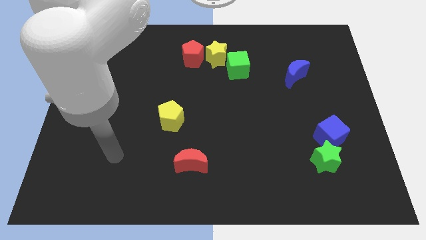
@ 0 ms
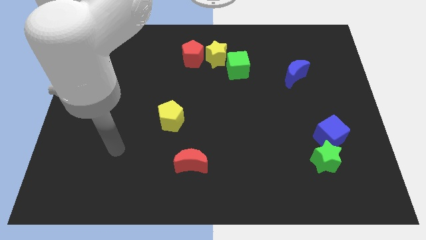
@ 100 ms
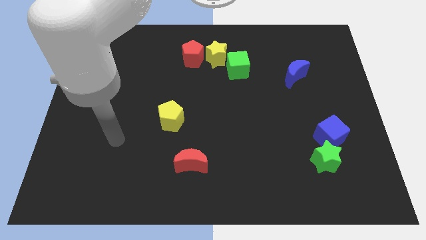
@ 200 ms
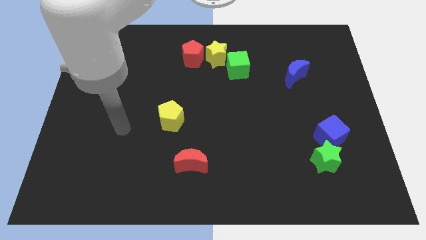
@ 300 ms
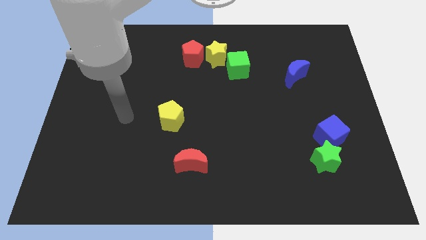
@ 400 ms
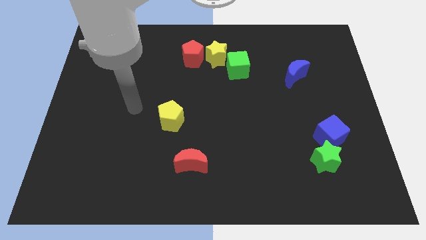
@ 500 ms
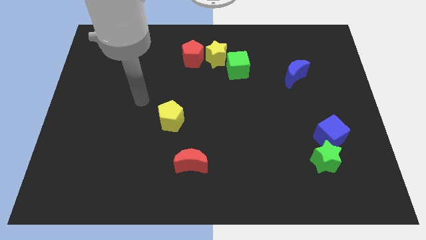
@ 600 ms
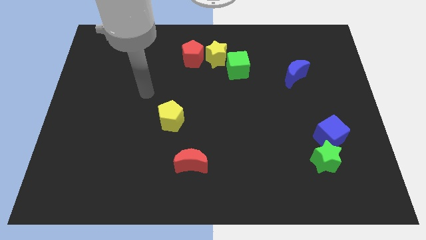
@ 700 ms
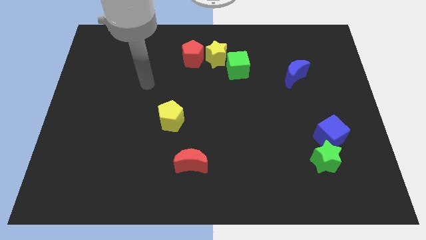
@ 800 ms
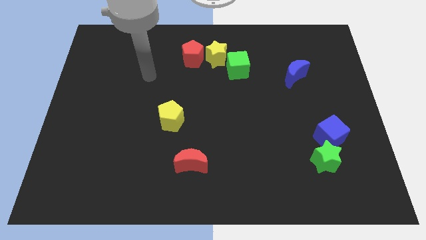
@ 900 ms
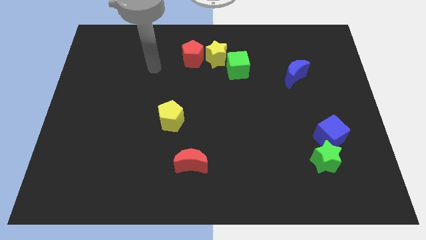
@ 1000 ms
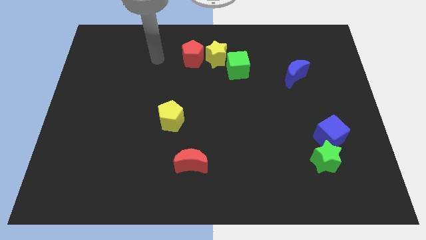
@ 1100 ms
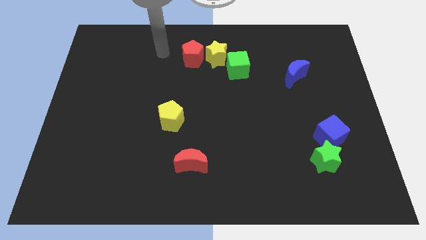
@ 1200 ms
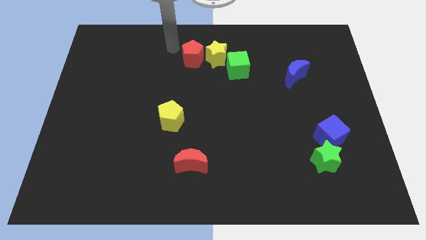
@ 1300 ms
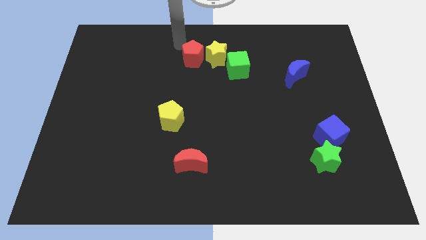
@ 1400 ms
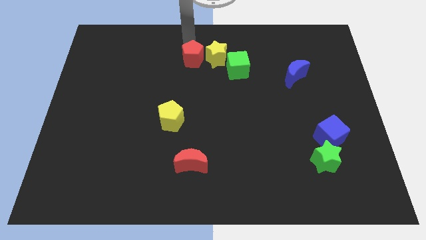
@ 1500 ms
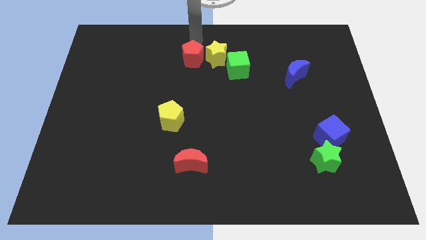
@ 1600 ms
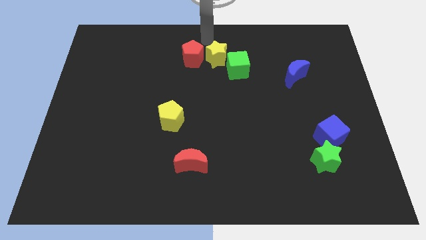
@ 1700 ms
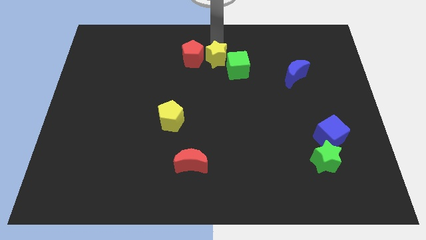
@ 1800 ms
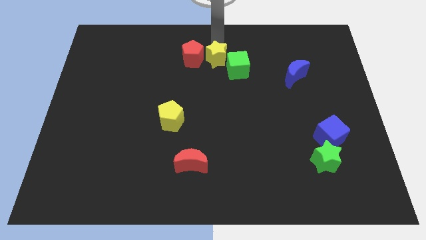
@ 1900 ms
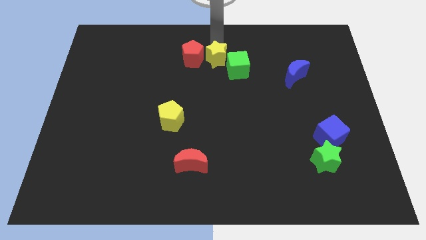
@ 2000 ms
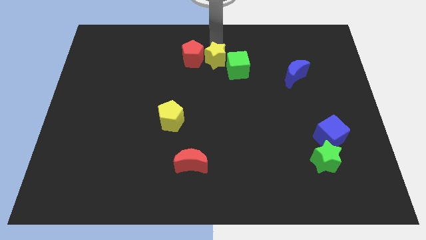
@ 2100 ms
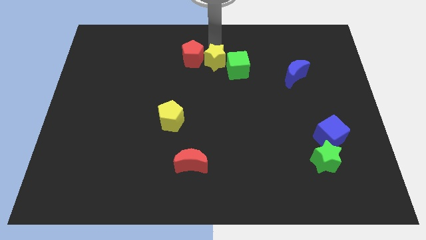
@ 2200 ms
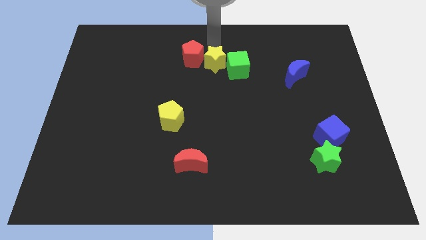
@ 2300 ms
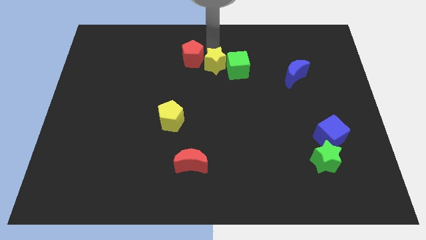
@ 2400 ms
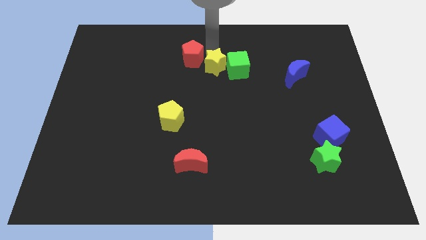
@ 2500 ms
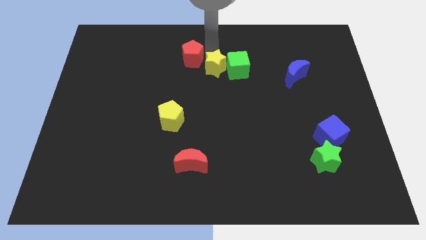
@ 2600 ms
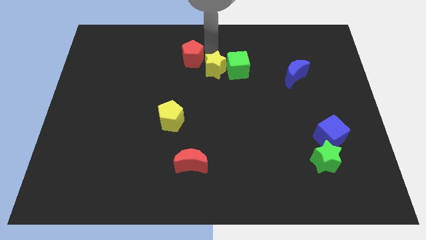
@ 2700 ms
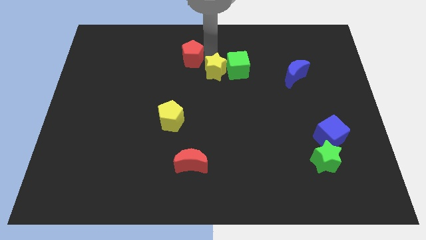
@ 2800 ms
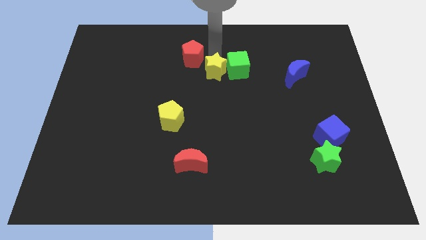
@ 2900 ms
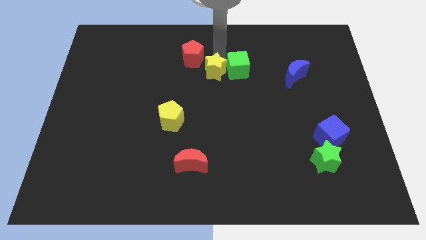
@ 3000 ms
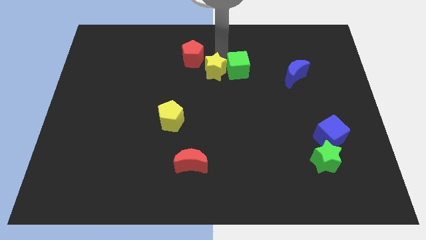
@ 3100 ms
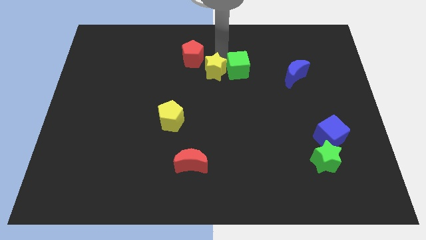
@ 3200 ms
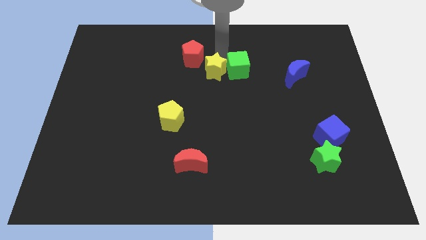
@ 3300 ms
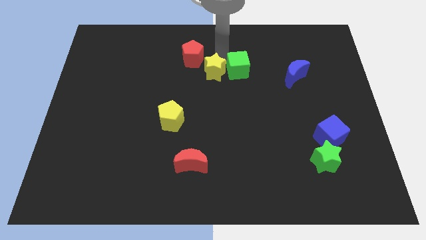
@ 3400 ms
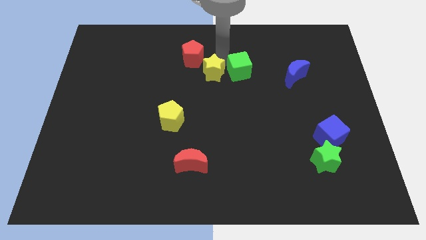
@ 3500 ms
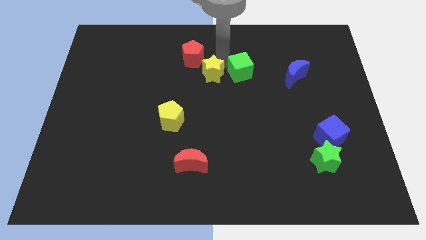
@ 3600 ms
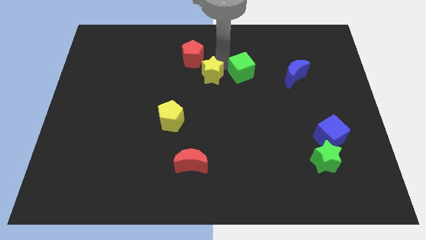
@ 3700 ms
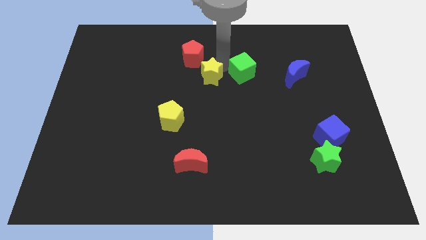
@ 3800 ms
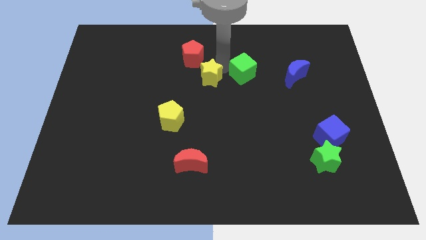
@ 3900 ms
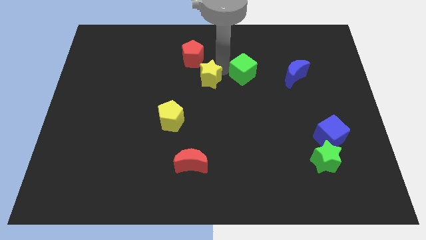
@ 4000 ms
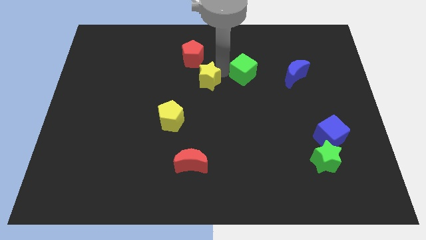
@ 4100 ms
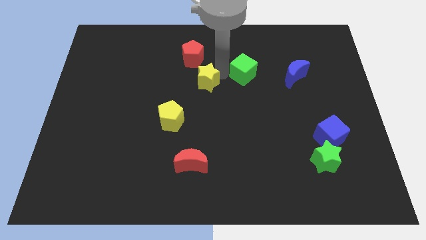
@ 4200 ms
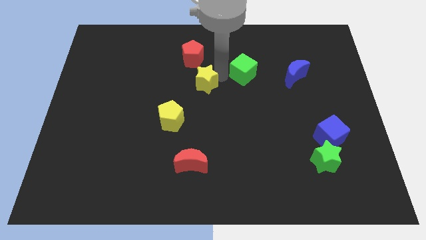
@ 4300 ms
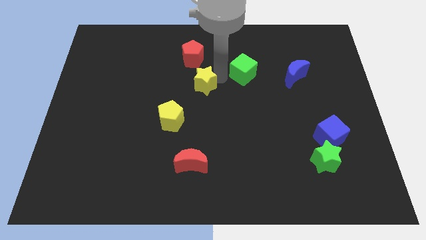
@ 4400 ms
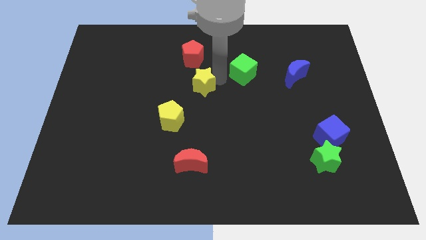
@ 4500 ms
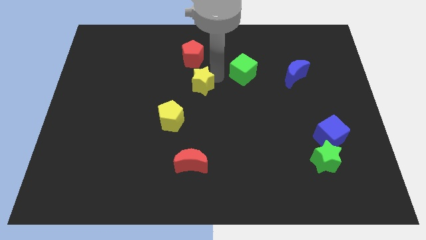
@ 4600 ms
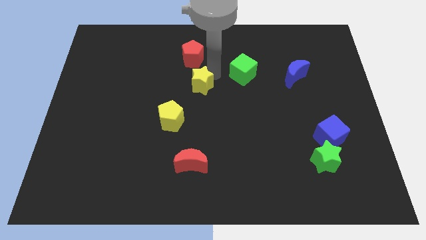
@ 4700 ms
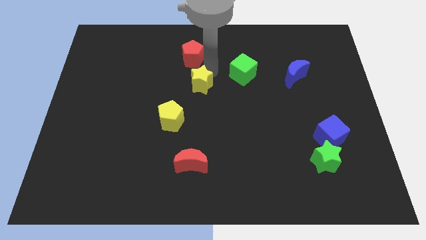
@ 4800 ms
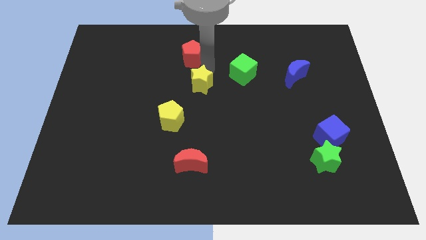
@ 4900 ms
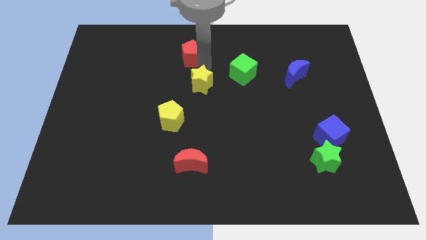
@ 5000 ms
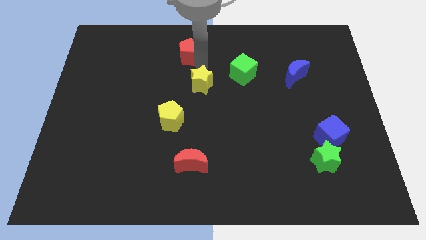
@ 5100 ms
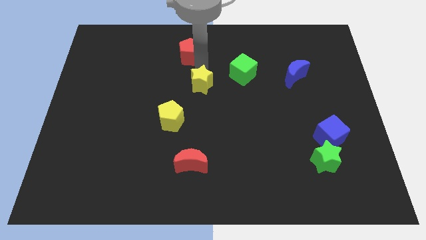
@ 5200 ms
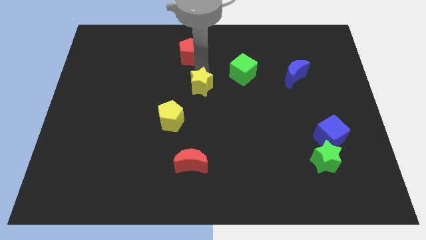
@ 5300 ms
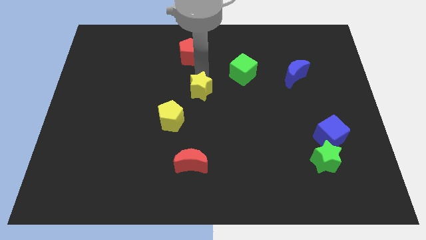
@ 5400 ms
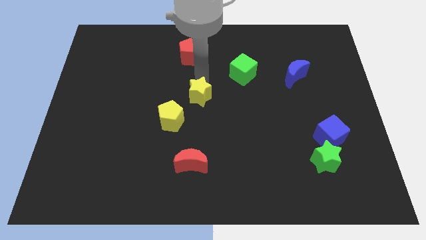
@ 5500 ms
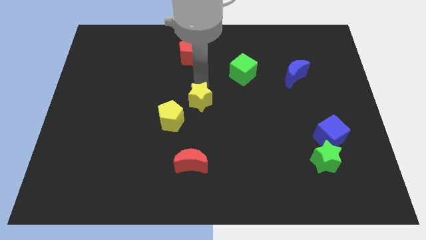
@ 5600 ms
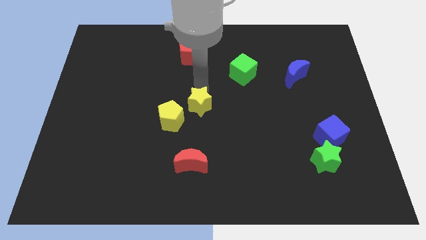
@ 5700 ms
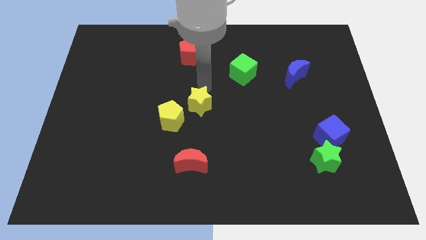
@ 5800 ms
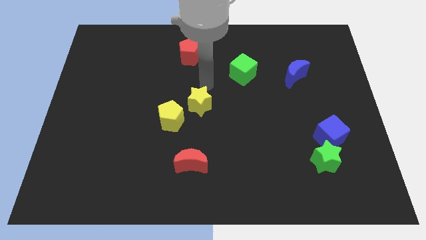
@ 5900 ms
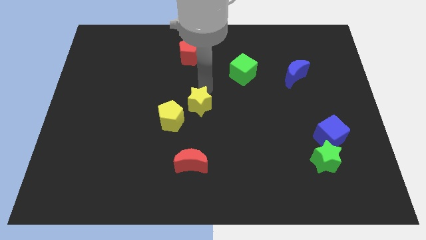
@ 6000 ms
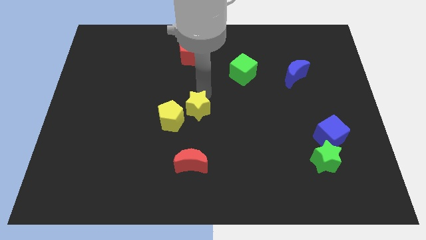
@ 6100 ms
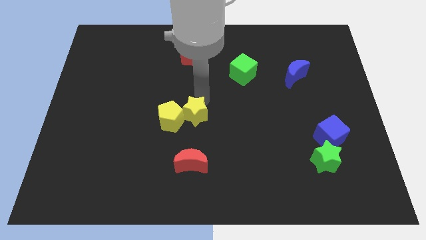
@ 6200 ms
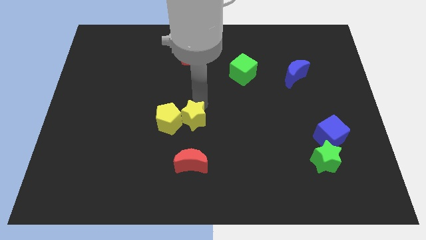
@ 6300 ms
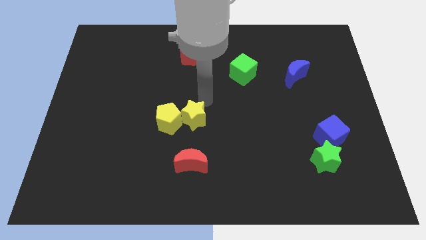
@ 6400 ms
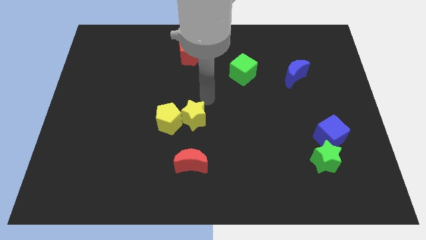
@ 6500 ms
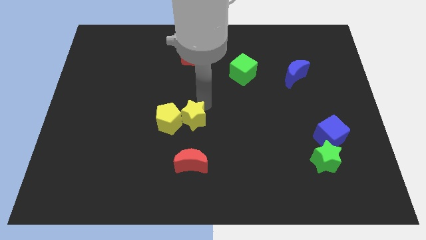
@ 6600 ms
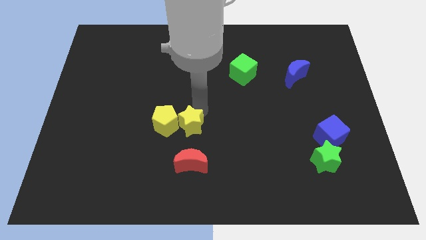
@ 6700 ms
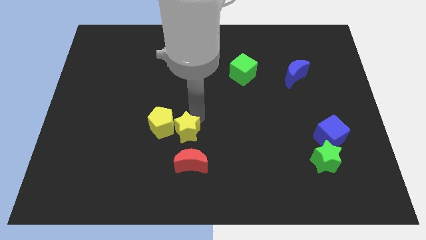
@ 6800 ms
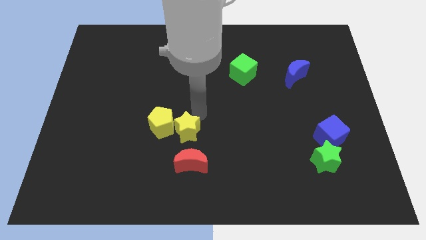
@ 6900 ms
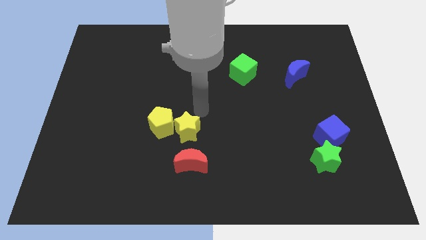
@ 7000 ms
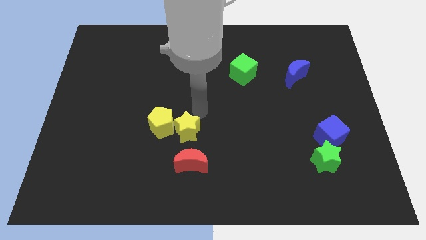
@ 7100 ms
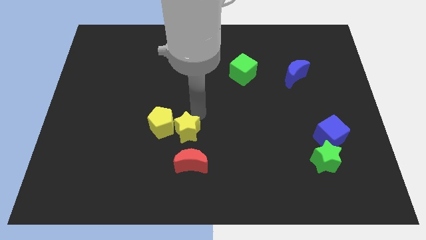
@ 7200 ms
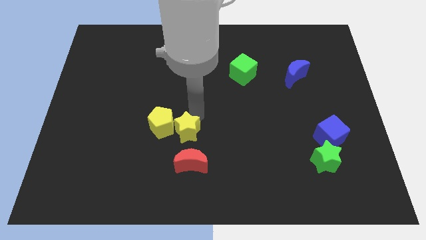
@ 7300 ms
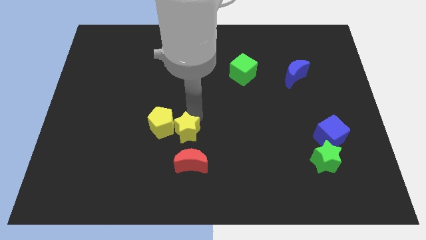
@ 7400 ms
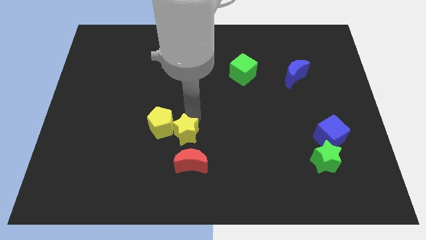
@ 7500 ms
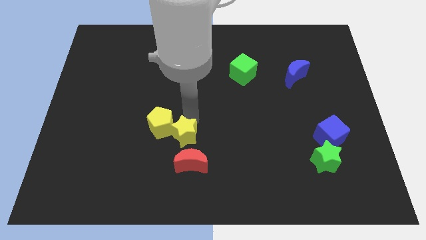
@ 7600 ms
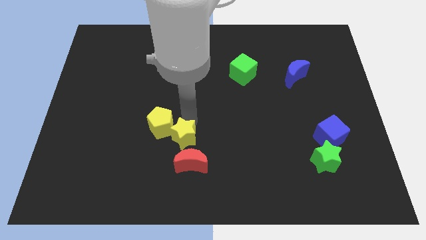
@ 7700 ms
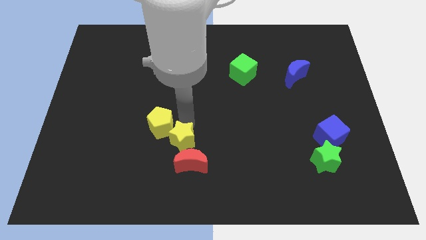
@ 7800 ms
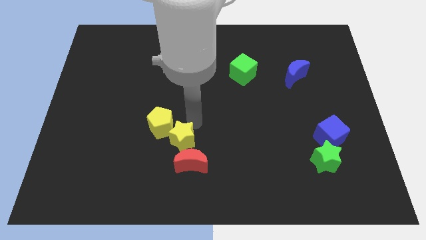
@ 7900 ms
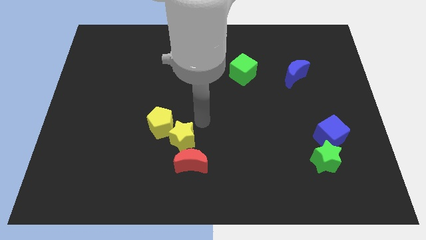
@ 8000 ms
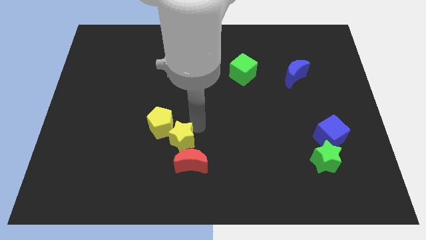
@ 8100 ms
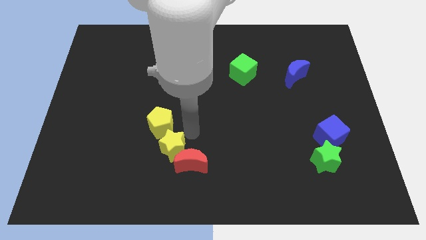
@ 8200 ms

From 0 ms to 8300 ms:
slide the yellow star to the bottom side of the yellow pentagon
